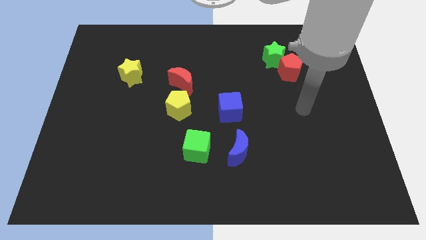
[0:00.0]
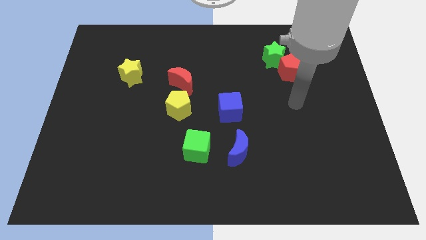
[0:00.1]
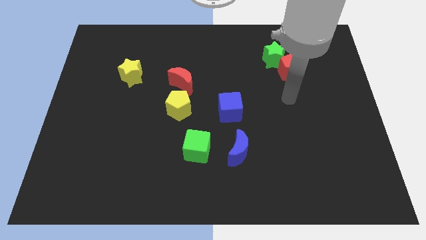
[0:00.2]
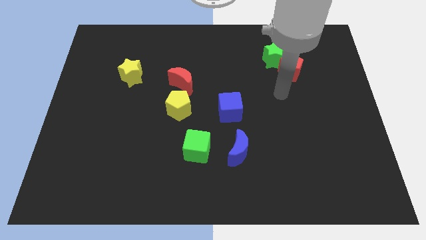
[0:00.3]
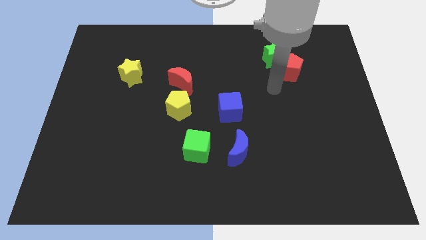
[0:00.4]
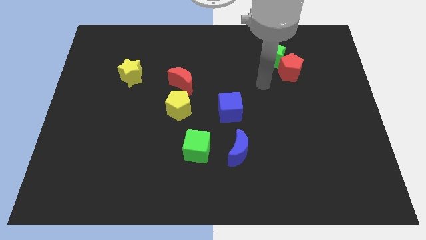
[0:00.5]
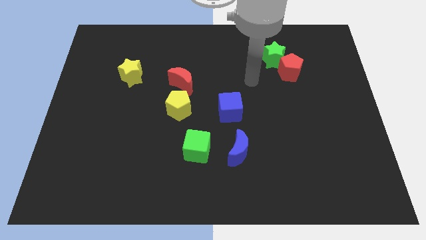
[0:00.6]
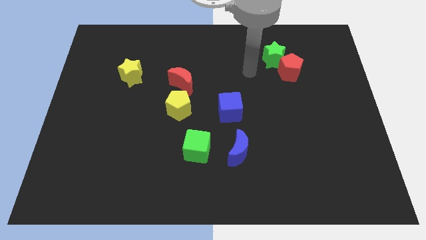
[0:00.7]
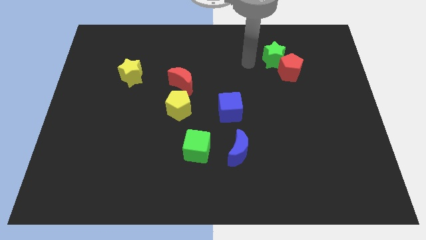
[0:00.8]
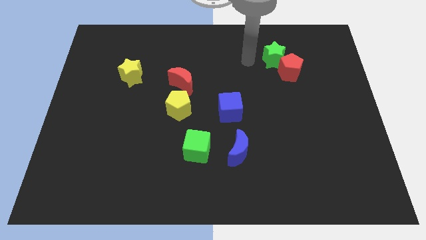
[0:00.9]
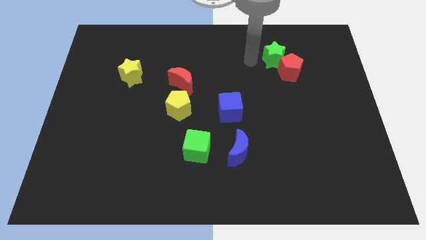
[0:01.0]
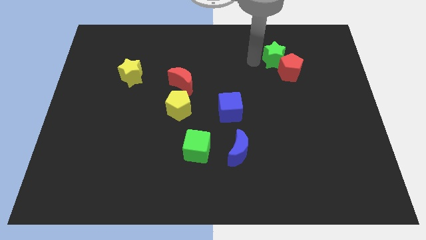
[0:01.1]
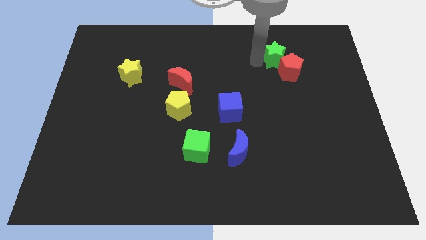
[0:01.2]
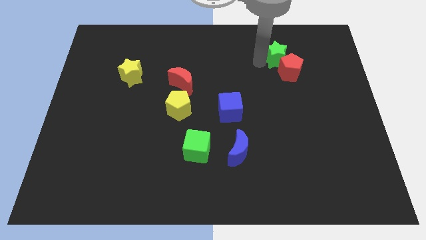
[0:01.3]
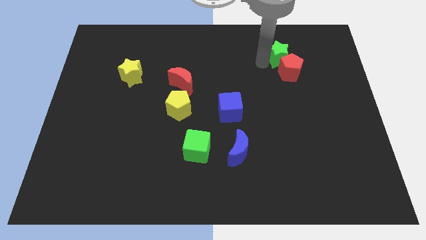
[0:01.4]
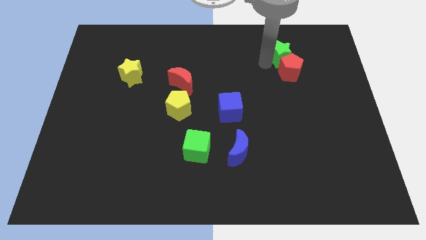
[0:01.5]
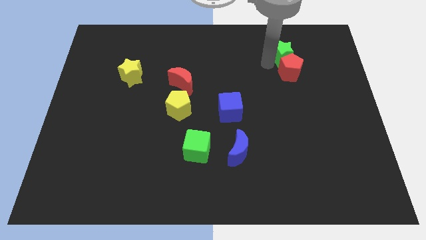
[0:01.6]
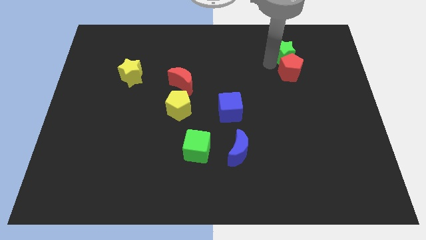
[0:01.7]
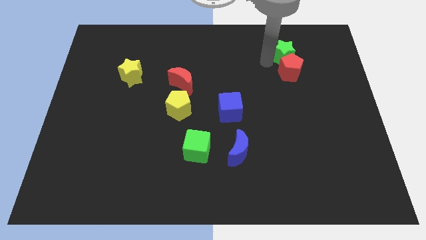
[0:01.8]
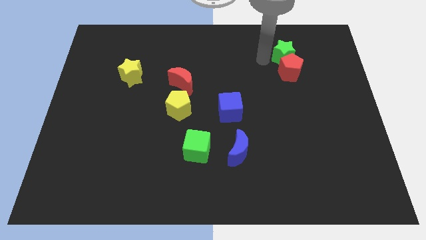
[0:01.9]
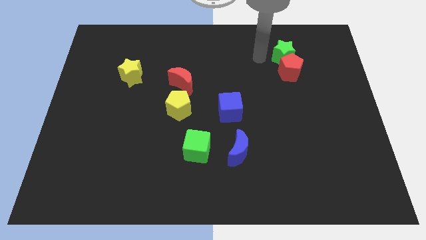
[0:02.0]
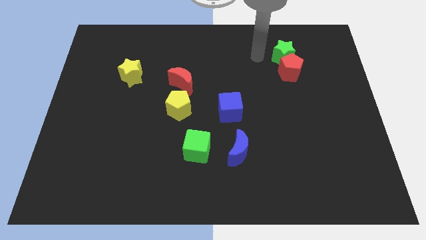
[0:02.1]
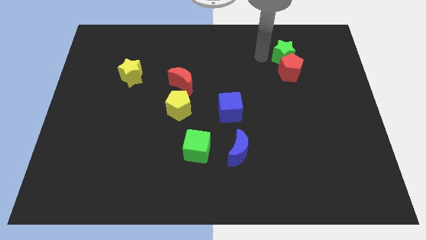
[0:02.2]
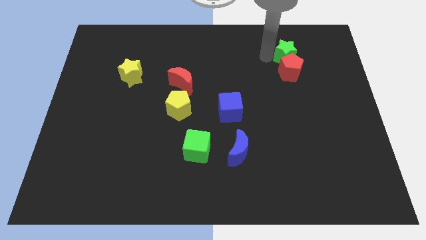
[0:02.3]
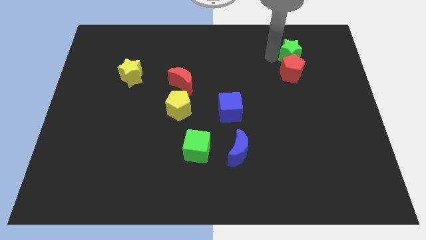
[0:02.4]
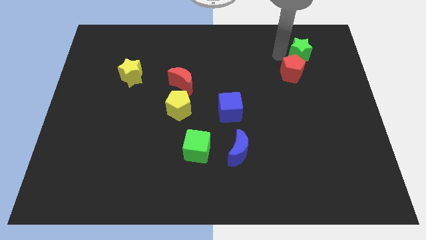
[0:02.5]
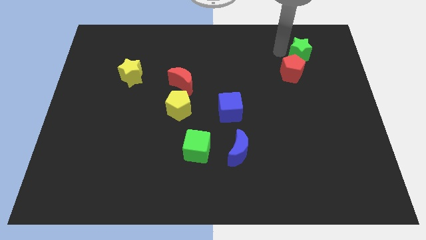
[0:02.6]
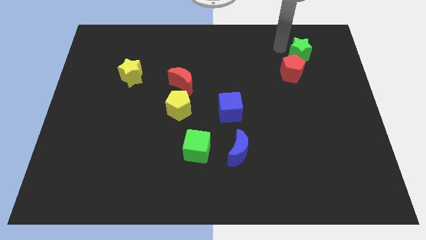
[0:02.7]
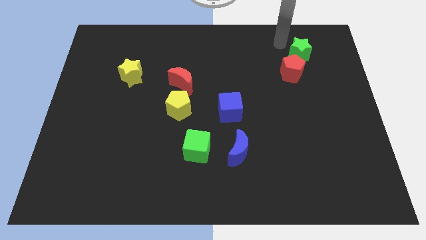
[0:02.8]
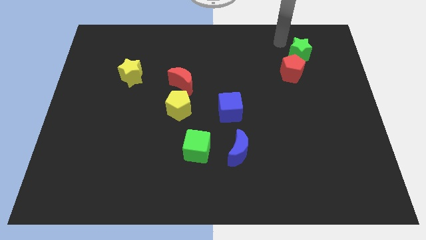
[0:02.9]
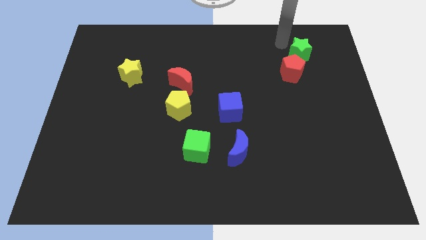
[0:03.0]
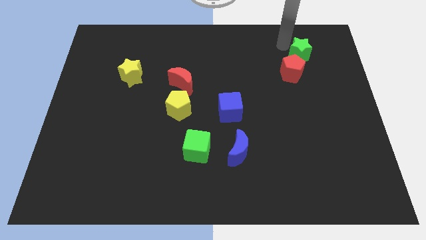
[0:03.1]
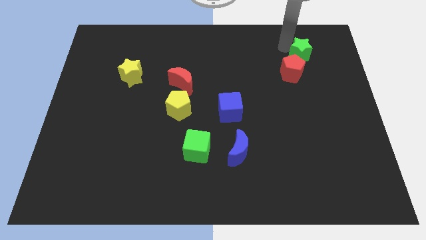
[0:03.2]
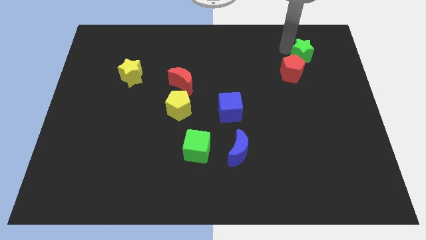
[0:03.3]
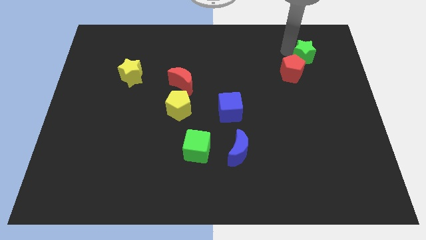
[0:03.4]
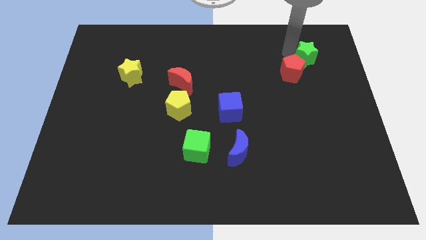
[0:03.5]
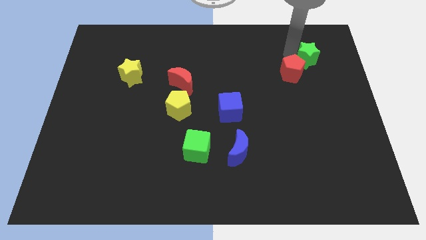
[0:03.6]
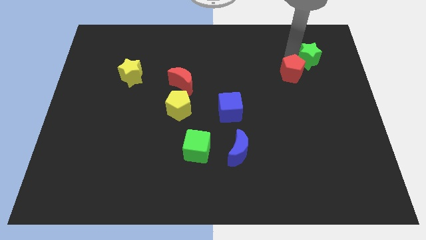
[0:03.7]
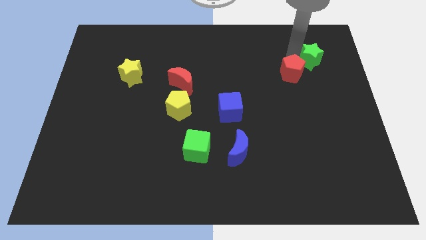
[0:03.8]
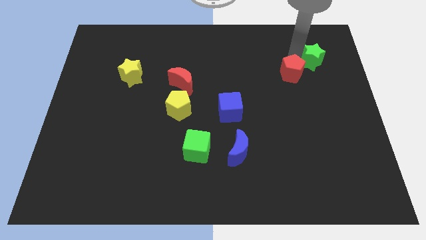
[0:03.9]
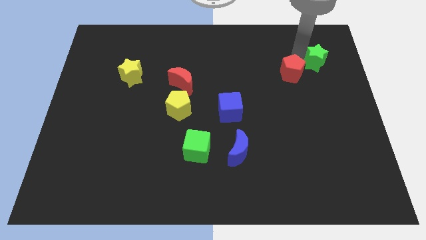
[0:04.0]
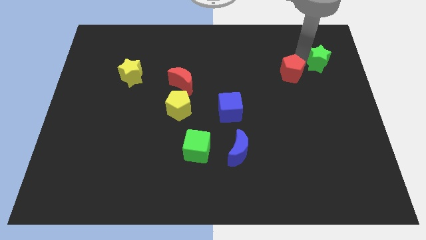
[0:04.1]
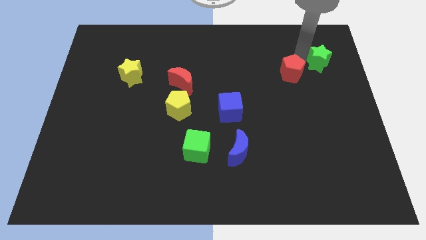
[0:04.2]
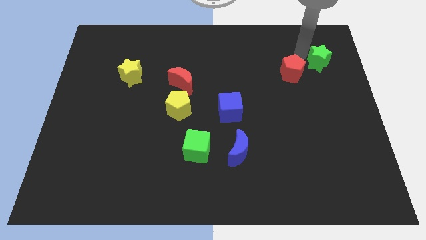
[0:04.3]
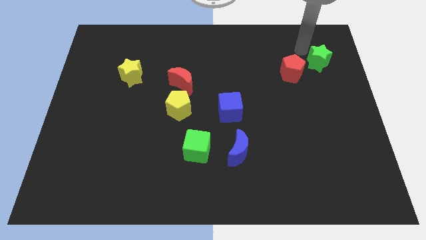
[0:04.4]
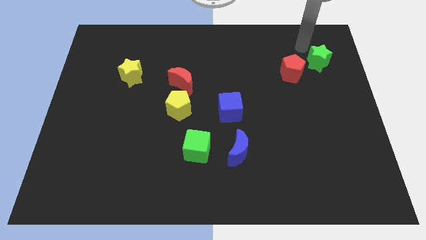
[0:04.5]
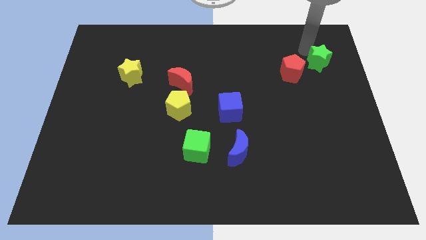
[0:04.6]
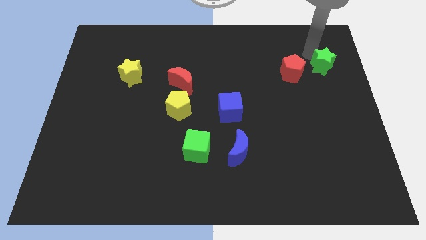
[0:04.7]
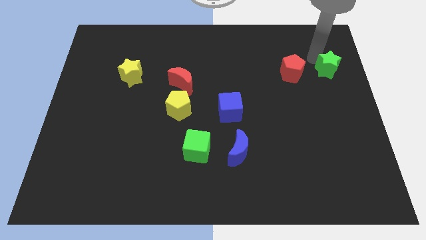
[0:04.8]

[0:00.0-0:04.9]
slide the green star to the right side

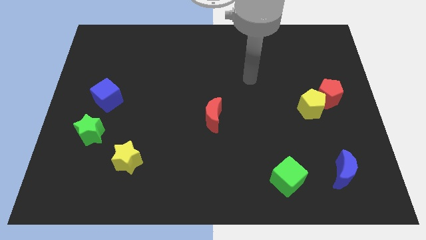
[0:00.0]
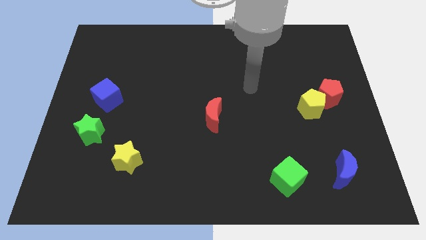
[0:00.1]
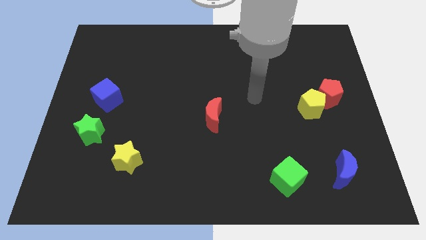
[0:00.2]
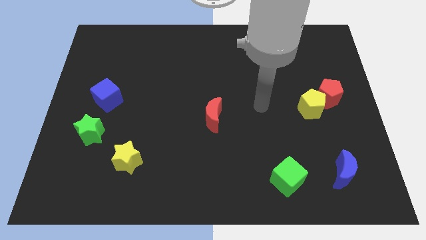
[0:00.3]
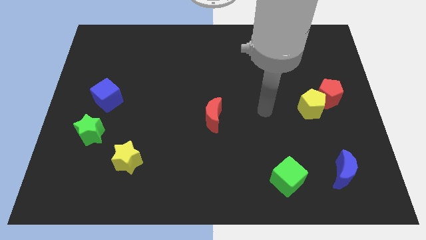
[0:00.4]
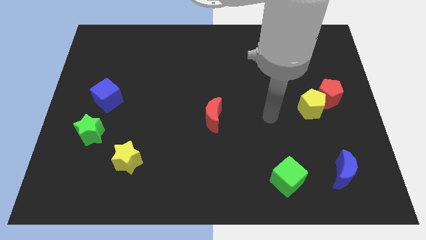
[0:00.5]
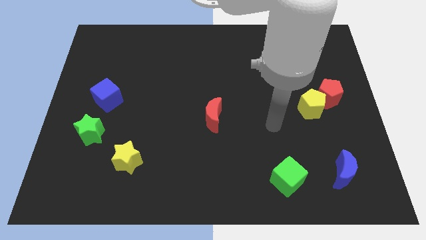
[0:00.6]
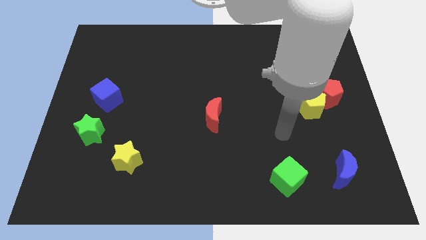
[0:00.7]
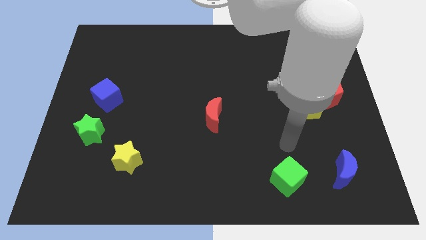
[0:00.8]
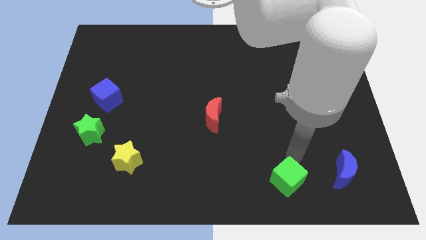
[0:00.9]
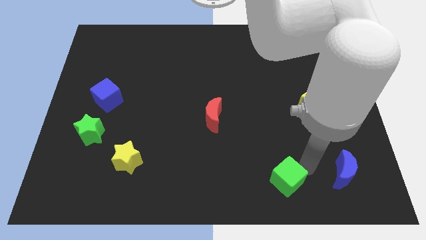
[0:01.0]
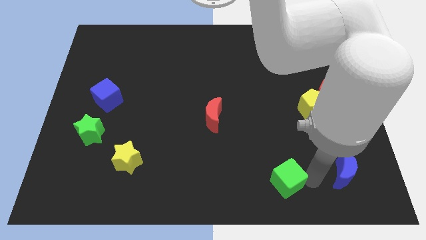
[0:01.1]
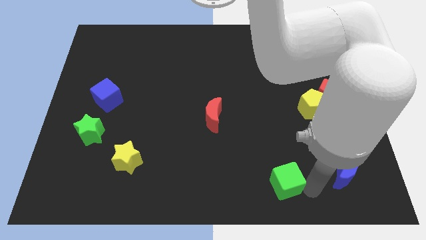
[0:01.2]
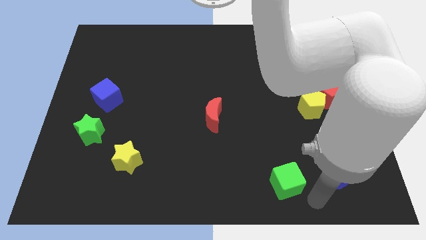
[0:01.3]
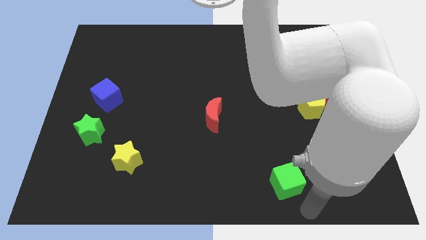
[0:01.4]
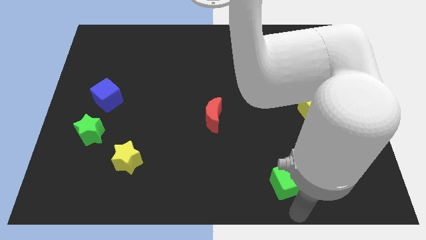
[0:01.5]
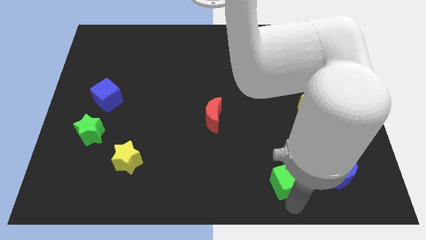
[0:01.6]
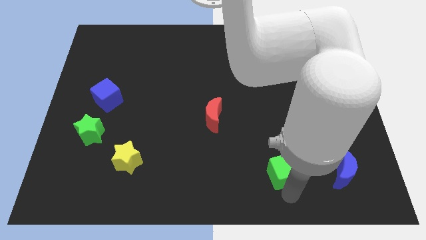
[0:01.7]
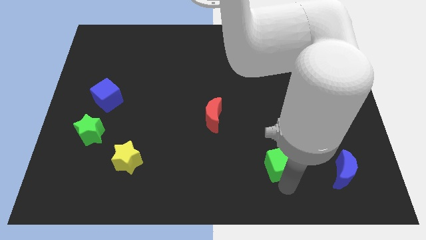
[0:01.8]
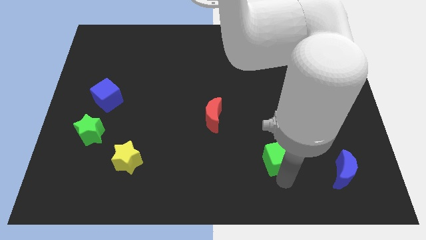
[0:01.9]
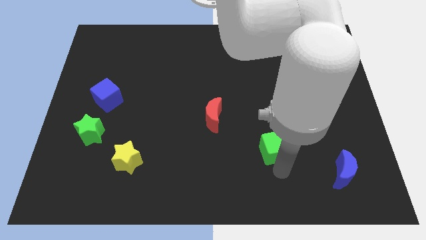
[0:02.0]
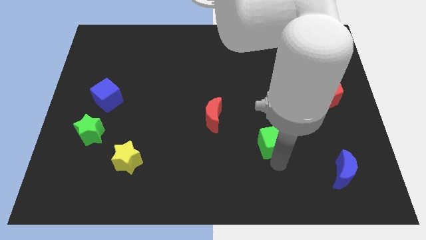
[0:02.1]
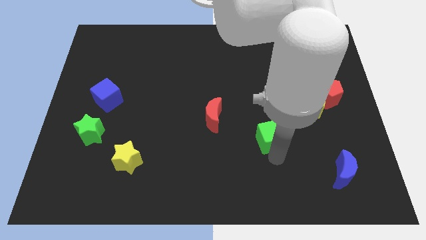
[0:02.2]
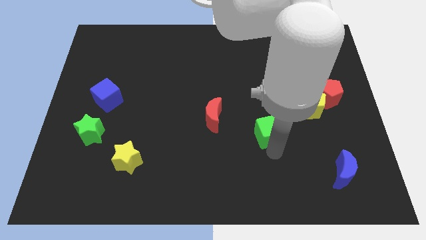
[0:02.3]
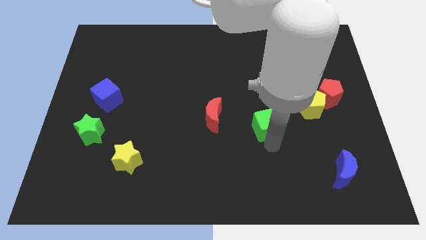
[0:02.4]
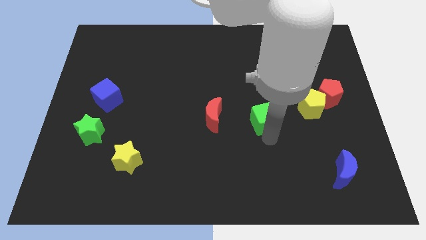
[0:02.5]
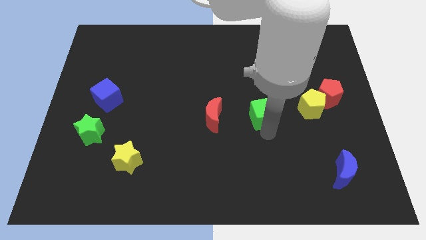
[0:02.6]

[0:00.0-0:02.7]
push the green cube to the middle of the board
